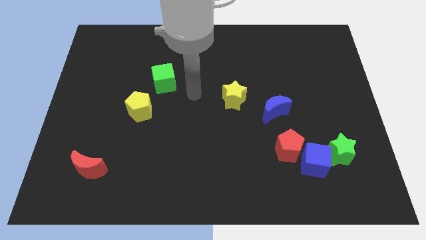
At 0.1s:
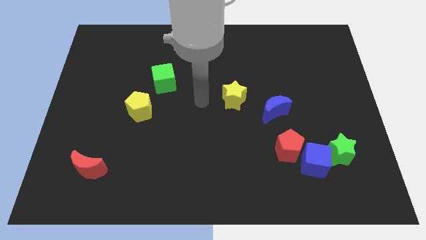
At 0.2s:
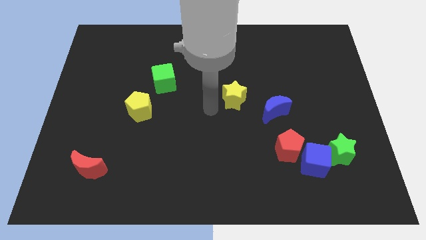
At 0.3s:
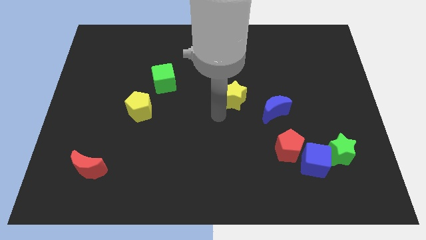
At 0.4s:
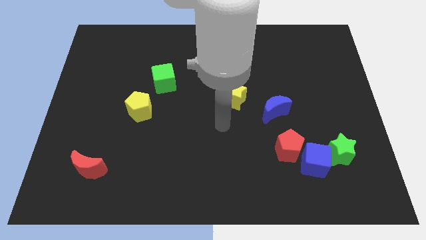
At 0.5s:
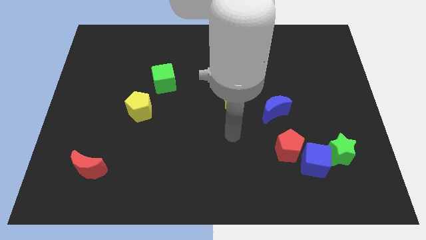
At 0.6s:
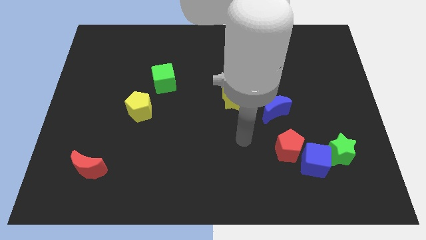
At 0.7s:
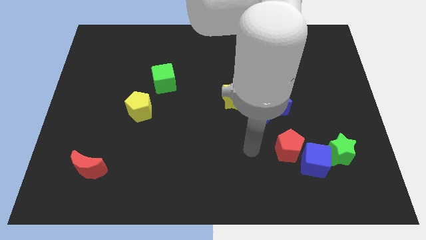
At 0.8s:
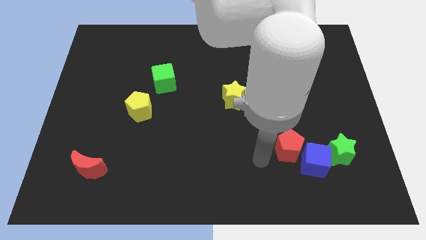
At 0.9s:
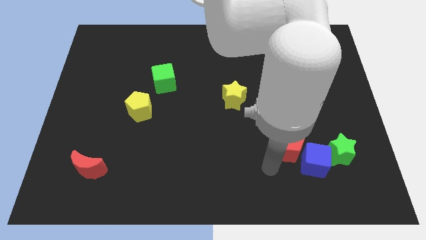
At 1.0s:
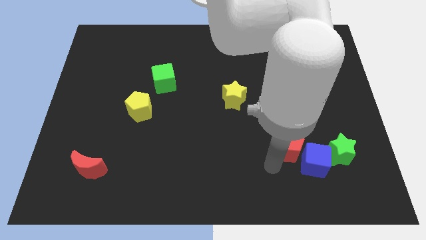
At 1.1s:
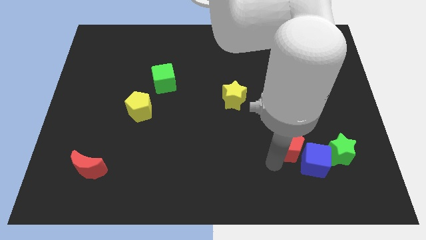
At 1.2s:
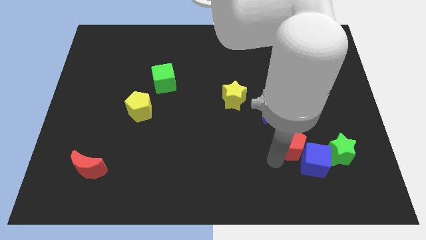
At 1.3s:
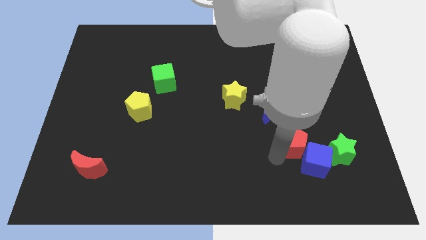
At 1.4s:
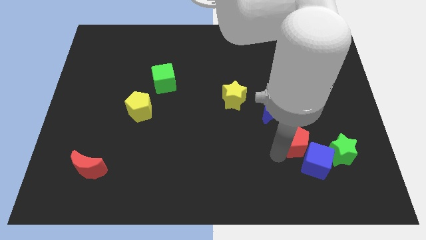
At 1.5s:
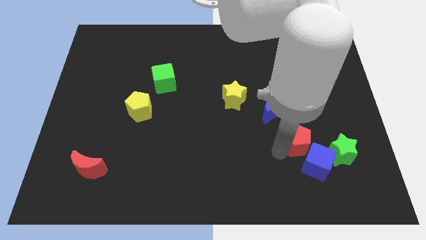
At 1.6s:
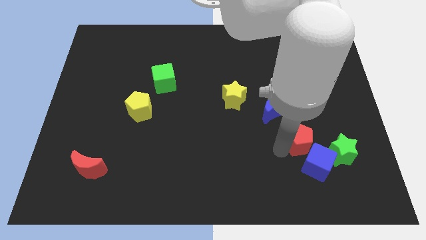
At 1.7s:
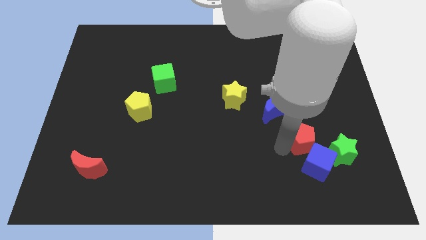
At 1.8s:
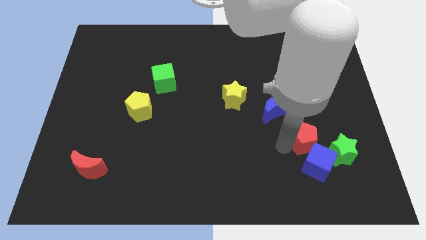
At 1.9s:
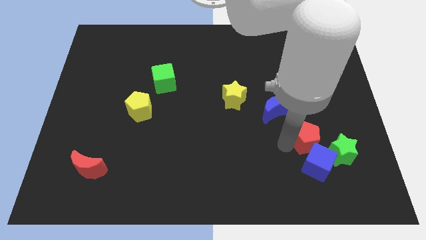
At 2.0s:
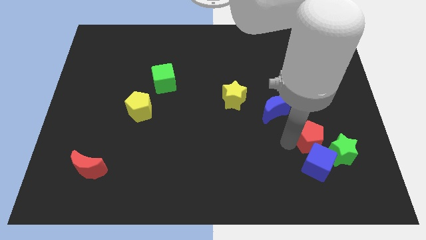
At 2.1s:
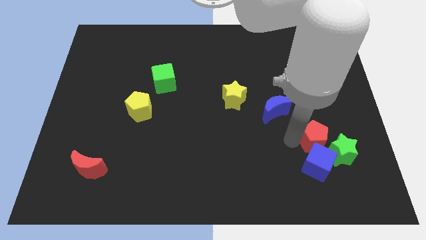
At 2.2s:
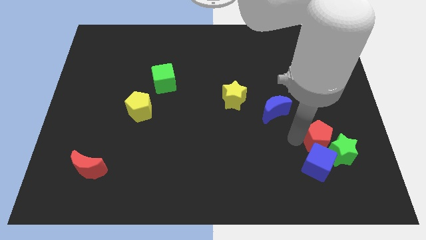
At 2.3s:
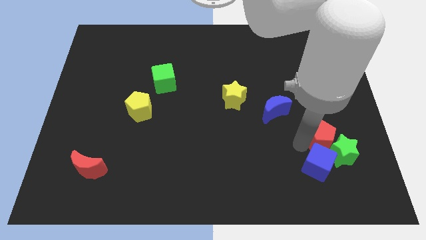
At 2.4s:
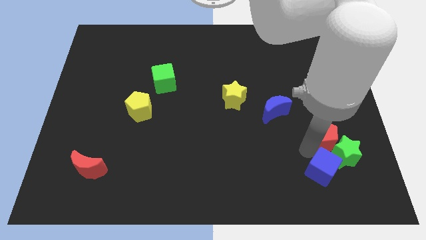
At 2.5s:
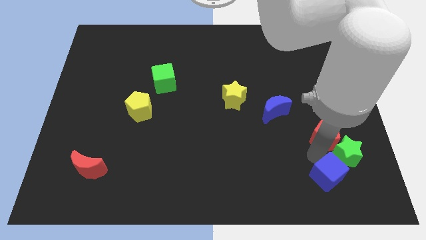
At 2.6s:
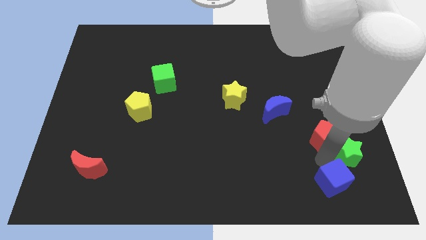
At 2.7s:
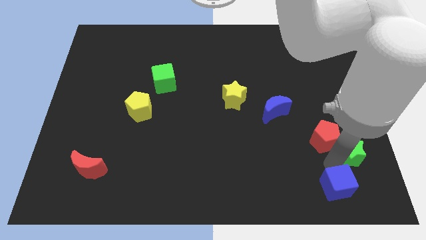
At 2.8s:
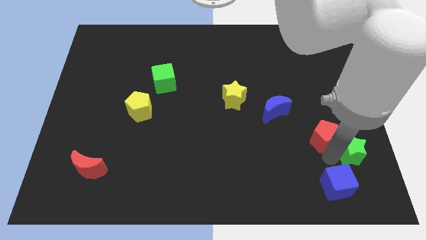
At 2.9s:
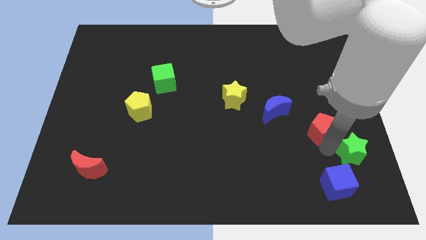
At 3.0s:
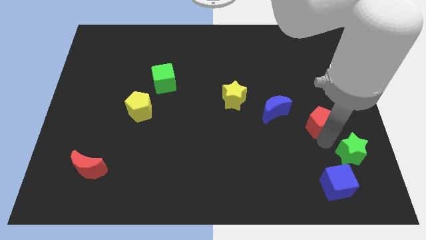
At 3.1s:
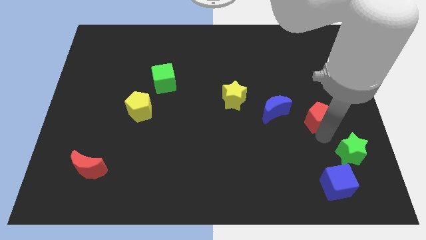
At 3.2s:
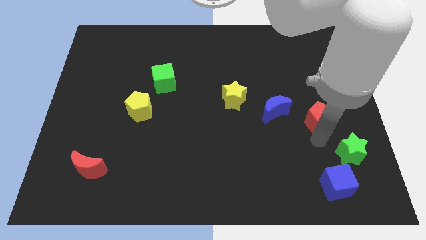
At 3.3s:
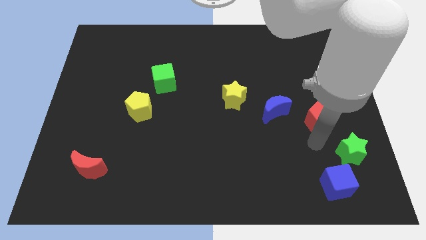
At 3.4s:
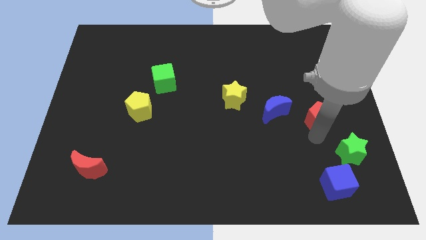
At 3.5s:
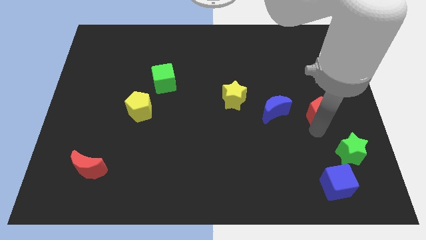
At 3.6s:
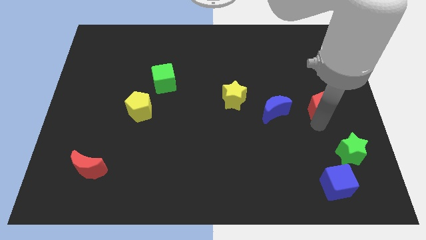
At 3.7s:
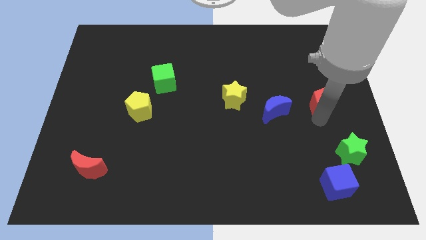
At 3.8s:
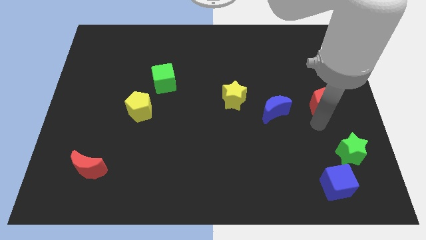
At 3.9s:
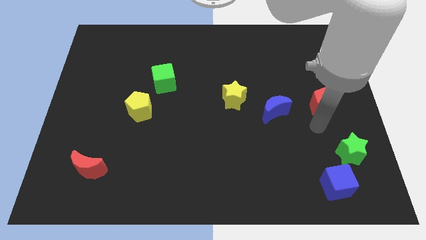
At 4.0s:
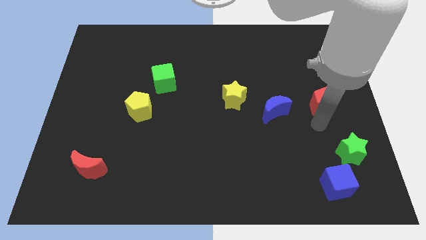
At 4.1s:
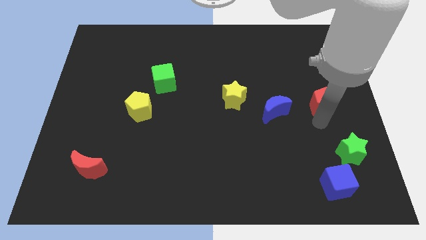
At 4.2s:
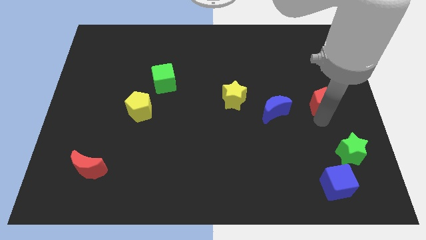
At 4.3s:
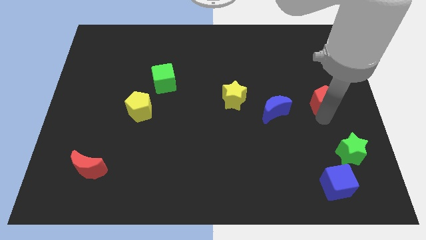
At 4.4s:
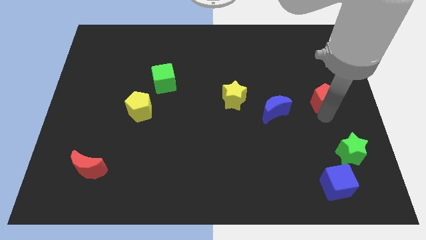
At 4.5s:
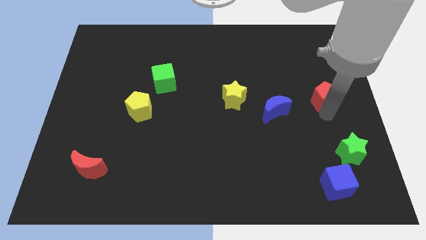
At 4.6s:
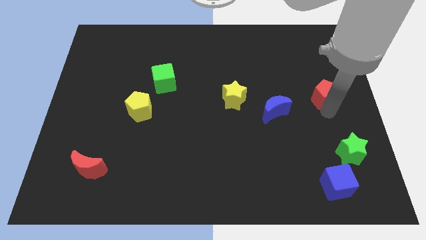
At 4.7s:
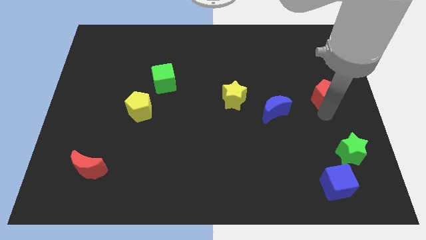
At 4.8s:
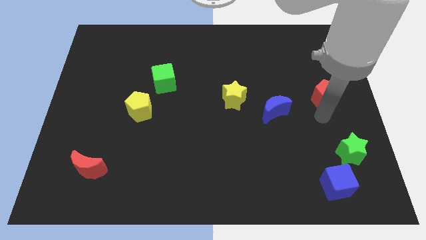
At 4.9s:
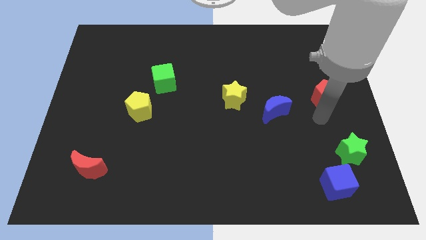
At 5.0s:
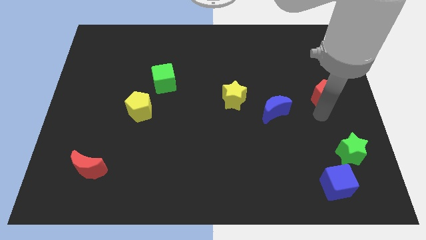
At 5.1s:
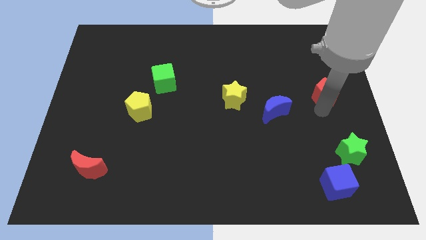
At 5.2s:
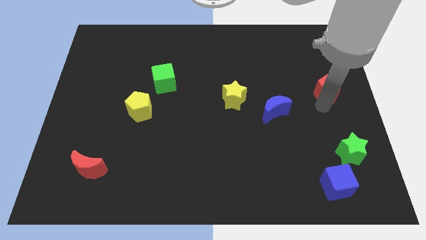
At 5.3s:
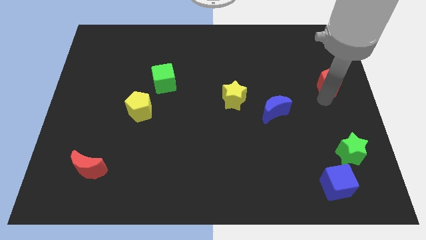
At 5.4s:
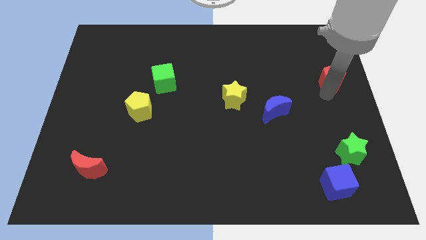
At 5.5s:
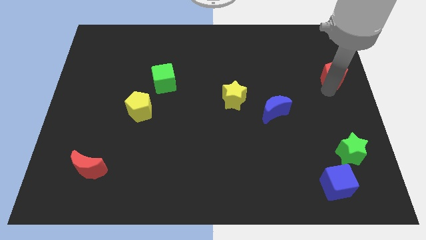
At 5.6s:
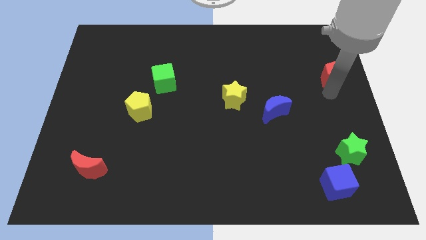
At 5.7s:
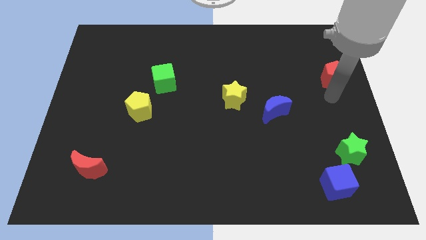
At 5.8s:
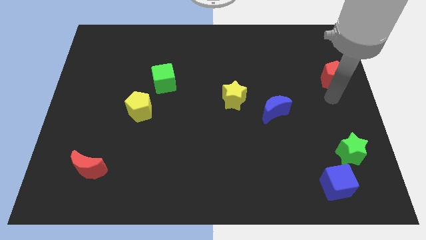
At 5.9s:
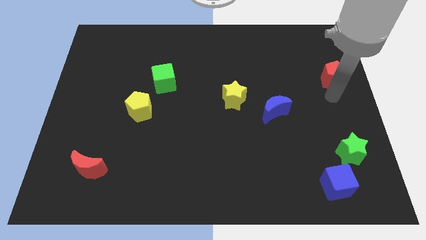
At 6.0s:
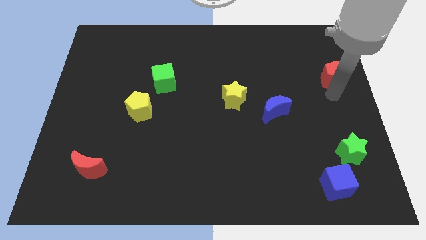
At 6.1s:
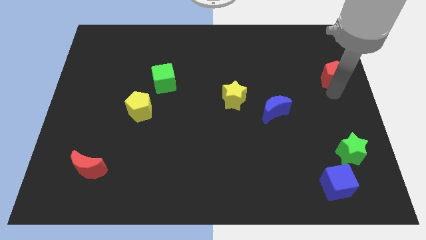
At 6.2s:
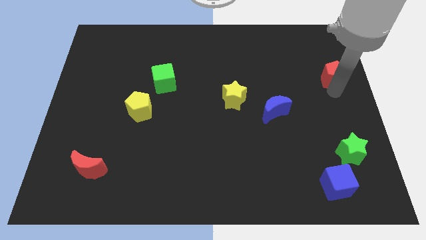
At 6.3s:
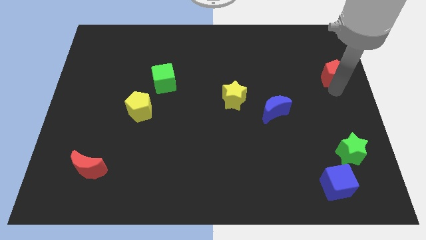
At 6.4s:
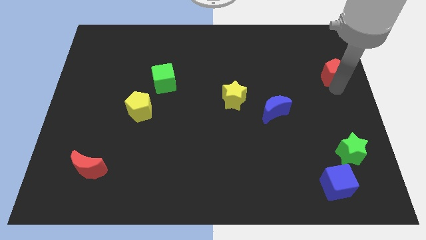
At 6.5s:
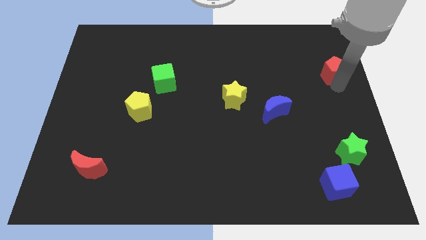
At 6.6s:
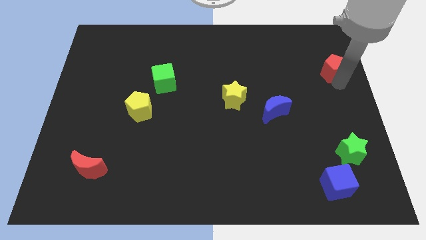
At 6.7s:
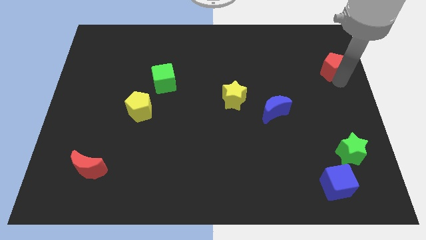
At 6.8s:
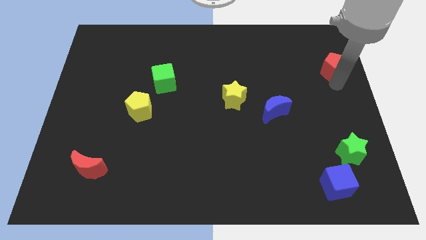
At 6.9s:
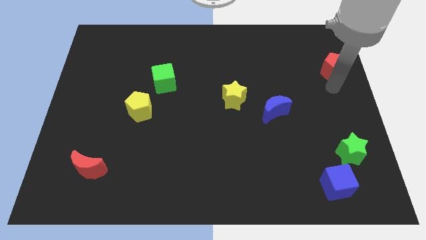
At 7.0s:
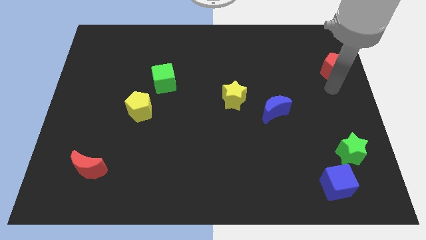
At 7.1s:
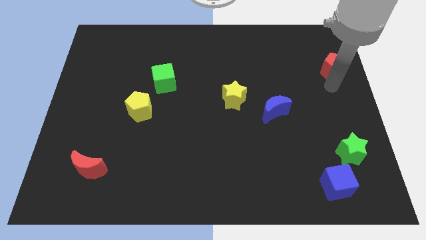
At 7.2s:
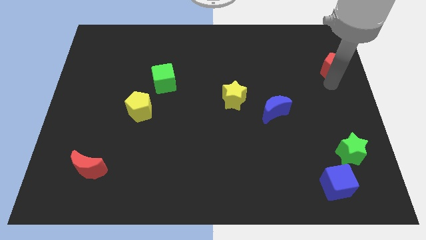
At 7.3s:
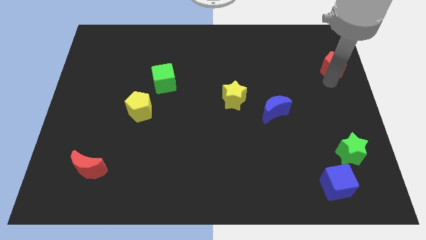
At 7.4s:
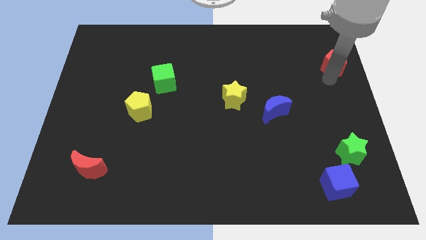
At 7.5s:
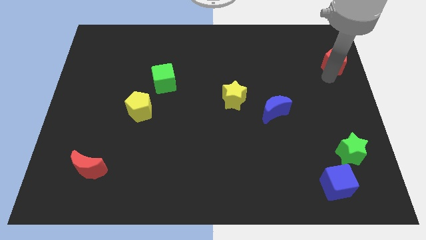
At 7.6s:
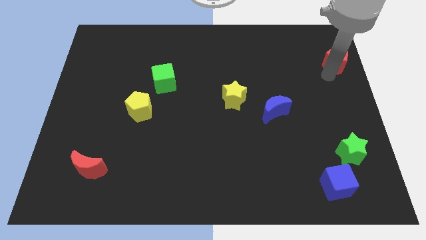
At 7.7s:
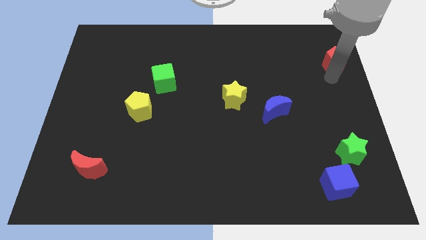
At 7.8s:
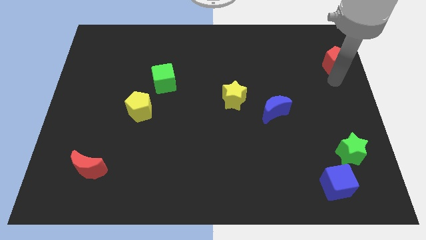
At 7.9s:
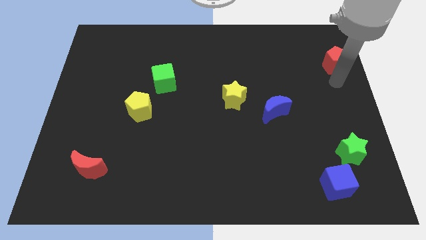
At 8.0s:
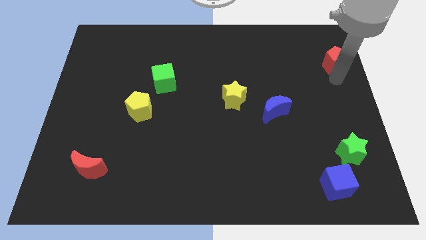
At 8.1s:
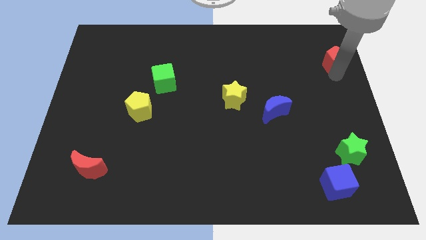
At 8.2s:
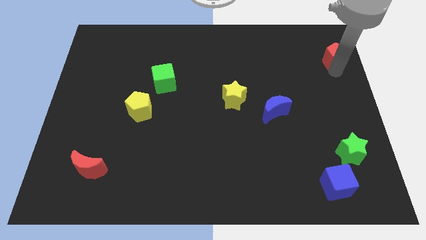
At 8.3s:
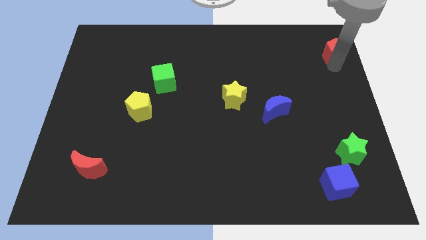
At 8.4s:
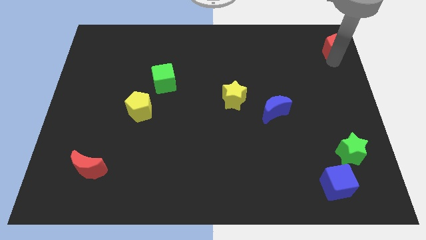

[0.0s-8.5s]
push the red pentagon to the top right of the board
